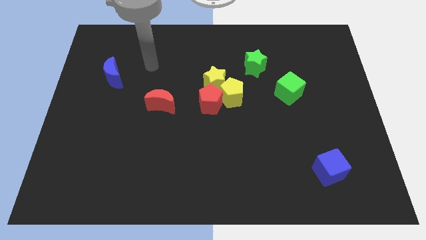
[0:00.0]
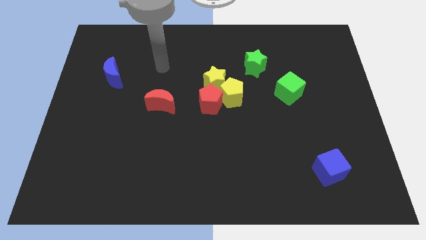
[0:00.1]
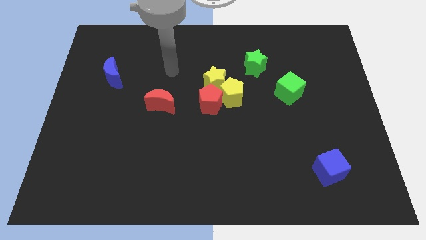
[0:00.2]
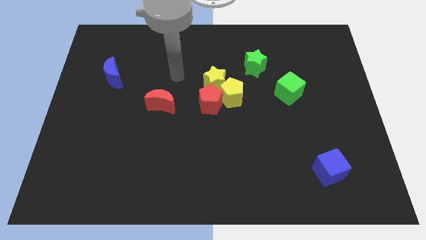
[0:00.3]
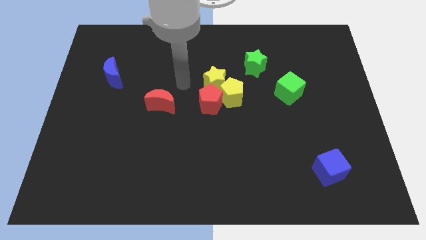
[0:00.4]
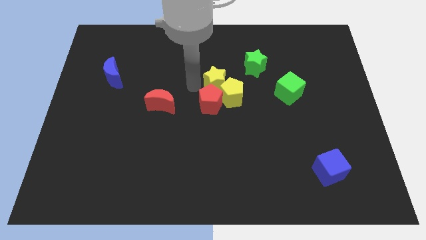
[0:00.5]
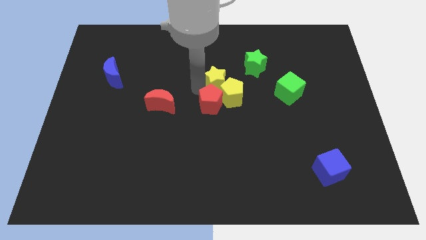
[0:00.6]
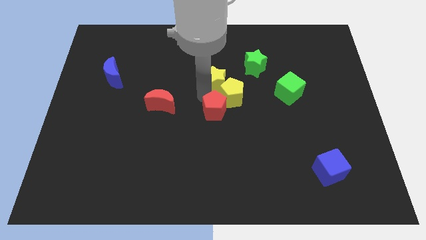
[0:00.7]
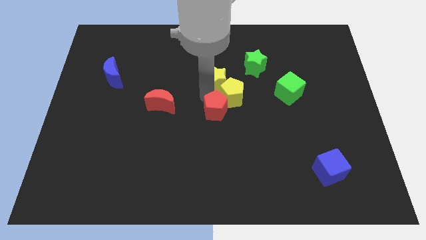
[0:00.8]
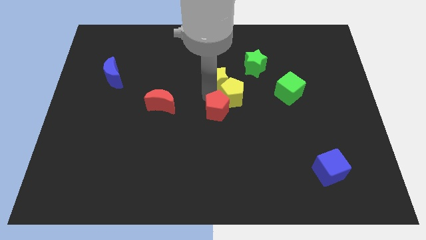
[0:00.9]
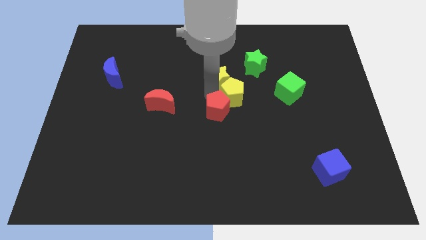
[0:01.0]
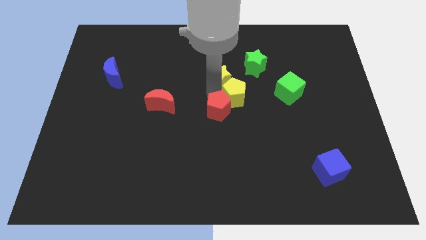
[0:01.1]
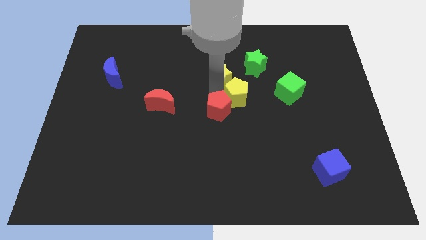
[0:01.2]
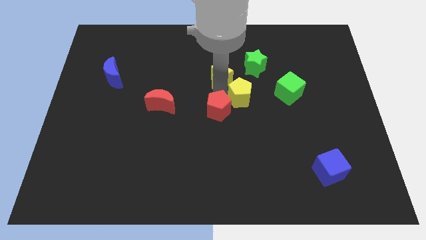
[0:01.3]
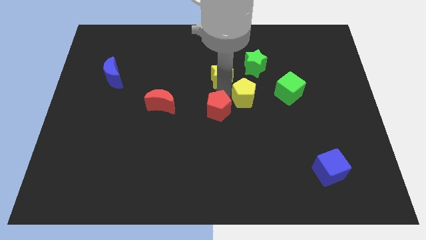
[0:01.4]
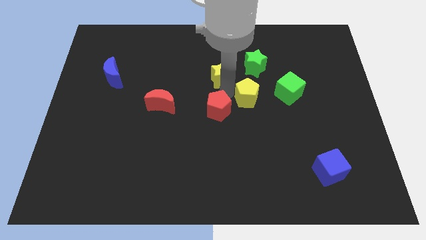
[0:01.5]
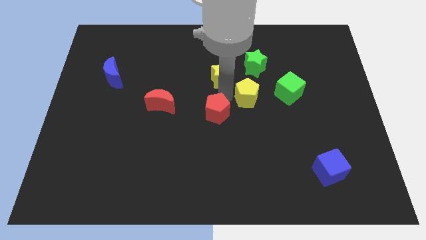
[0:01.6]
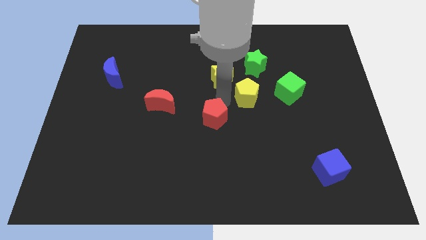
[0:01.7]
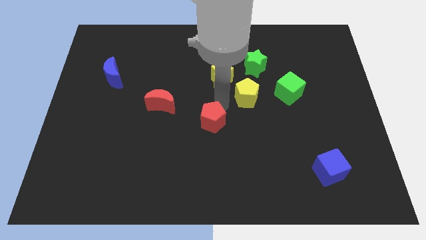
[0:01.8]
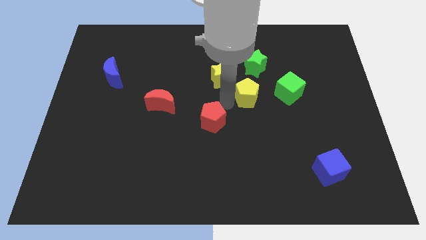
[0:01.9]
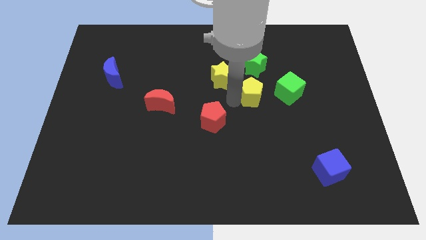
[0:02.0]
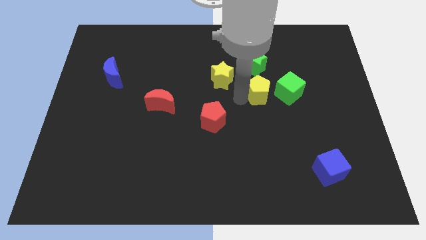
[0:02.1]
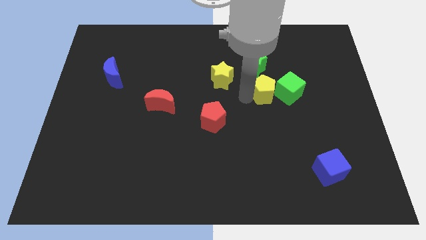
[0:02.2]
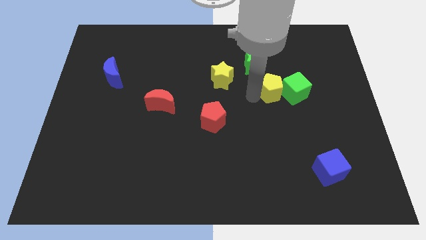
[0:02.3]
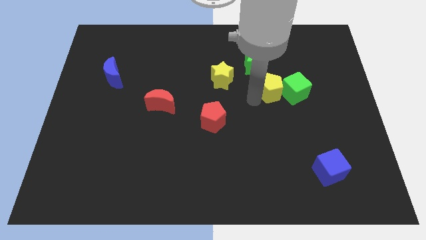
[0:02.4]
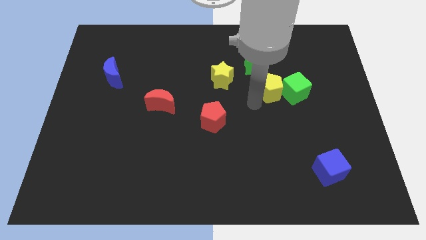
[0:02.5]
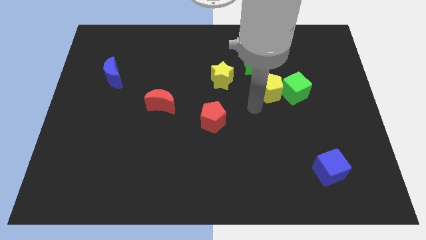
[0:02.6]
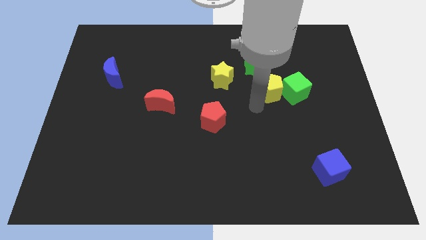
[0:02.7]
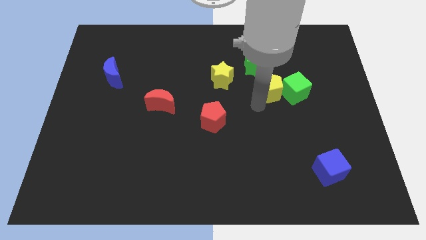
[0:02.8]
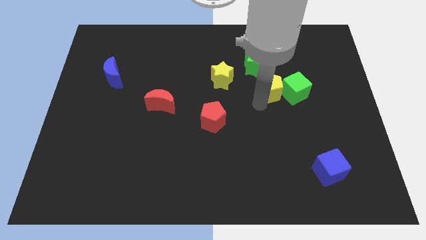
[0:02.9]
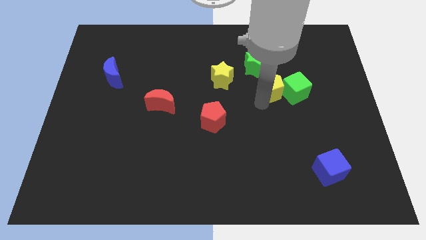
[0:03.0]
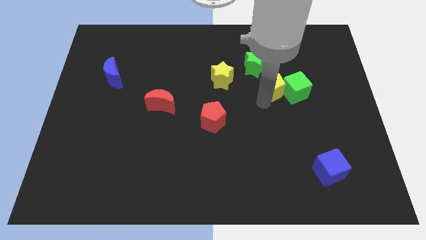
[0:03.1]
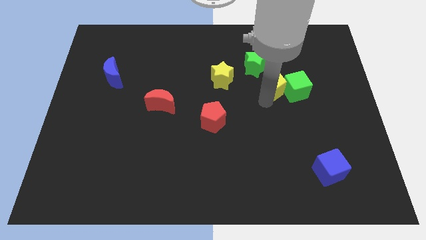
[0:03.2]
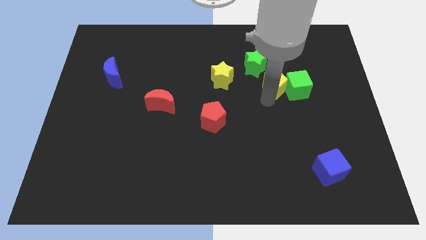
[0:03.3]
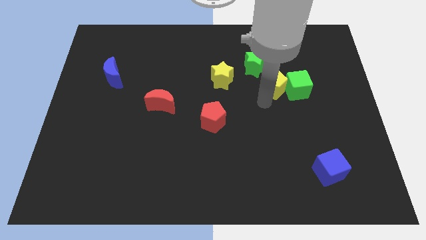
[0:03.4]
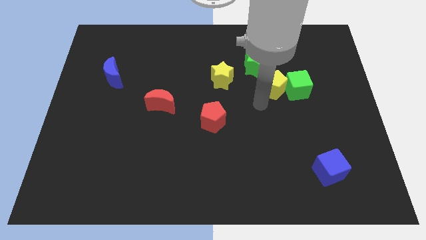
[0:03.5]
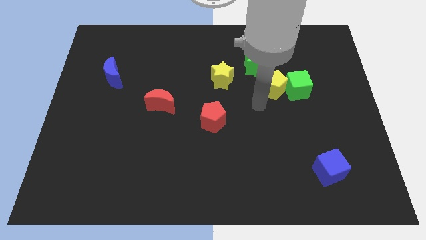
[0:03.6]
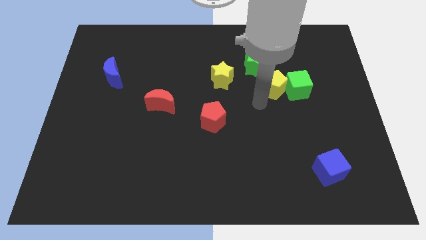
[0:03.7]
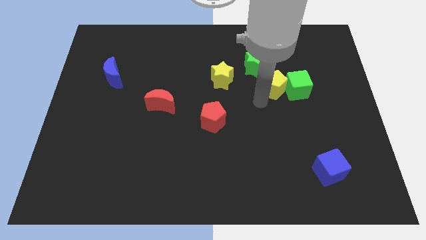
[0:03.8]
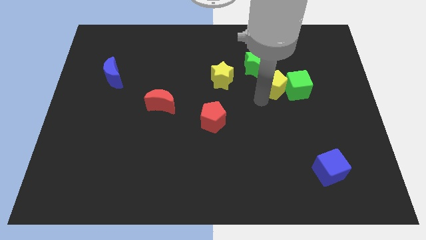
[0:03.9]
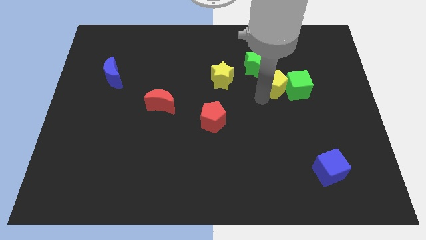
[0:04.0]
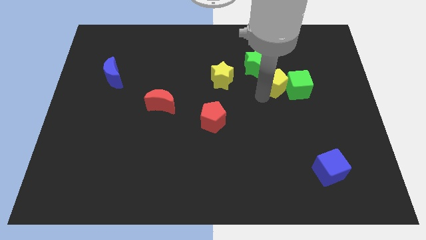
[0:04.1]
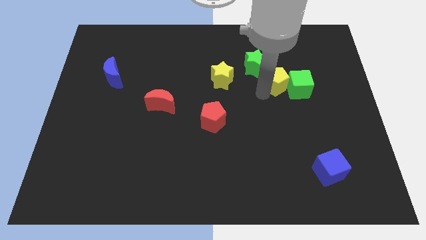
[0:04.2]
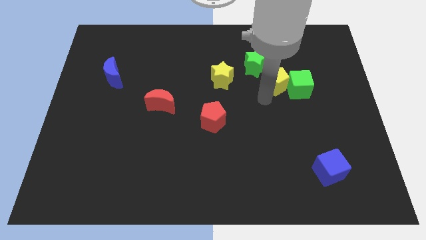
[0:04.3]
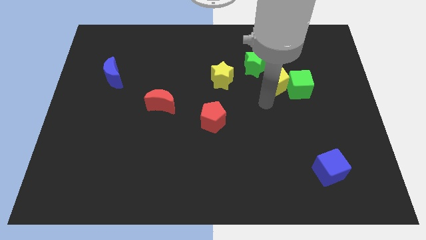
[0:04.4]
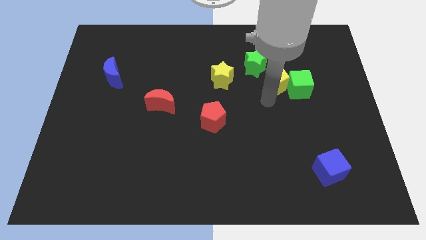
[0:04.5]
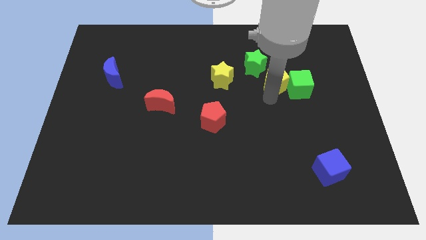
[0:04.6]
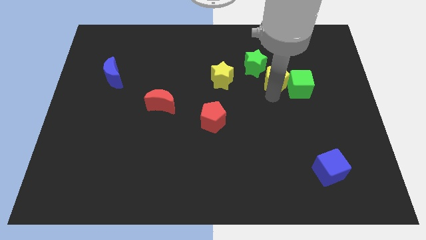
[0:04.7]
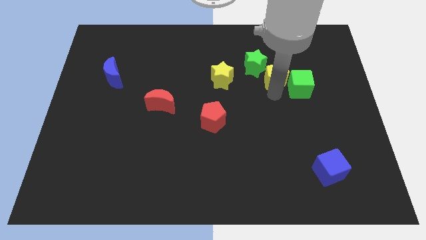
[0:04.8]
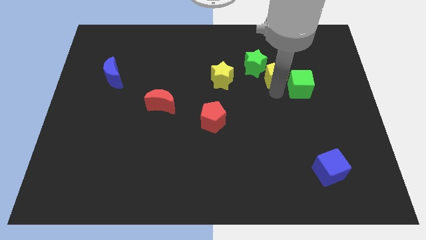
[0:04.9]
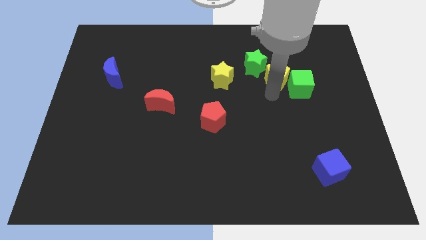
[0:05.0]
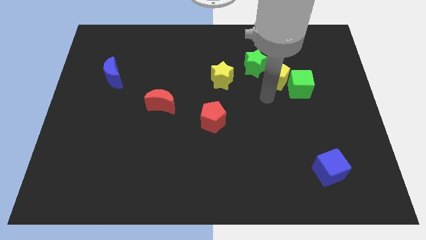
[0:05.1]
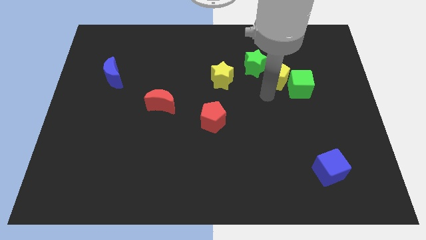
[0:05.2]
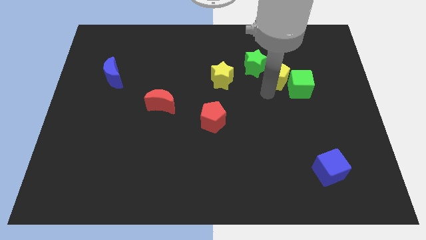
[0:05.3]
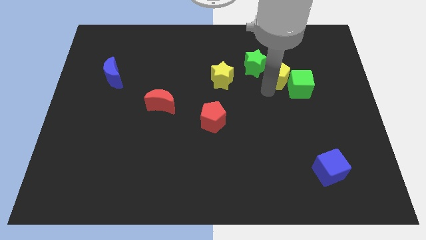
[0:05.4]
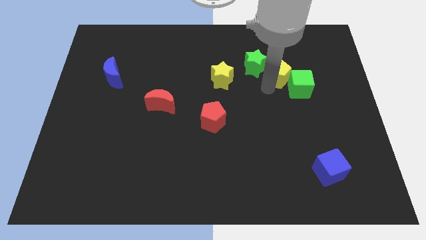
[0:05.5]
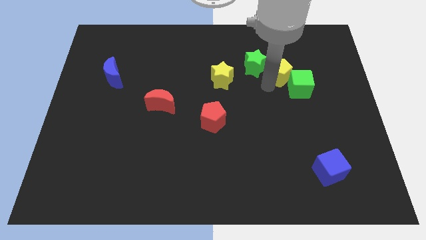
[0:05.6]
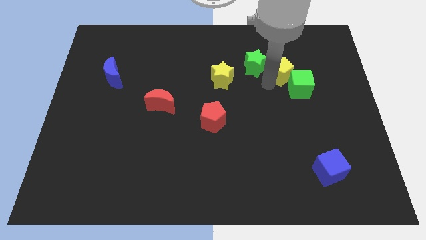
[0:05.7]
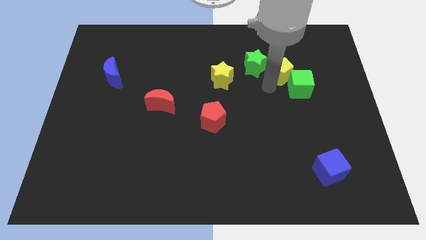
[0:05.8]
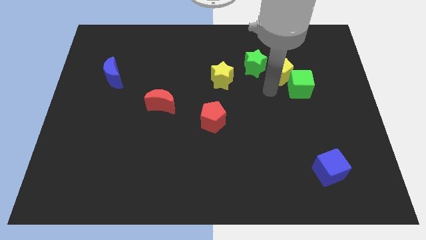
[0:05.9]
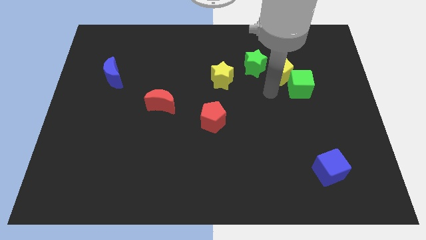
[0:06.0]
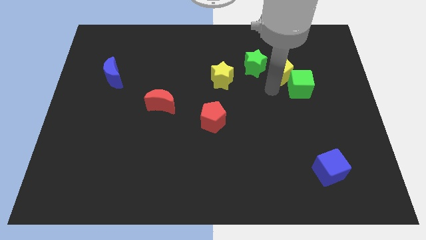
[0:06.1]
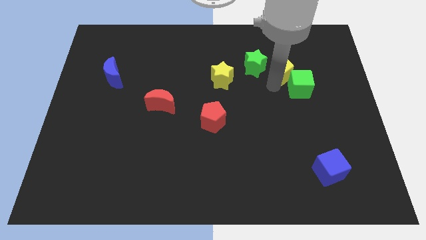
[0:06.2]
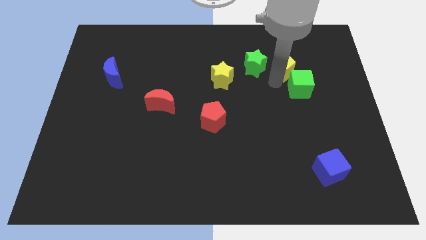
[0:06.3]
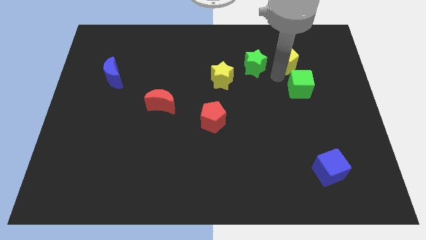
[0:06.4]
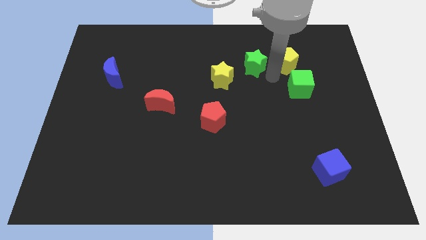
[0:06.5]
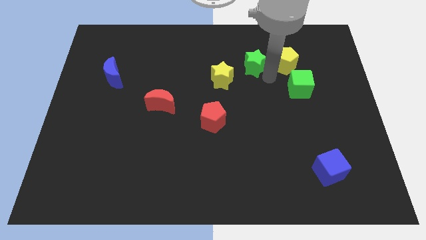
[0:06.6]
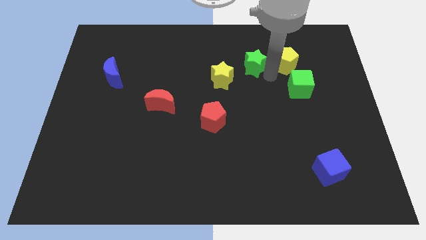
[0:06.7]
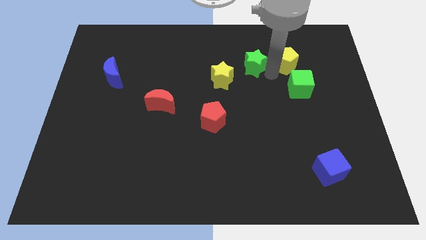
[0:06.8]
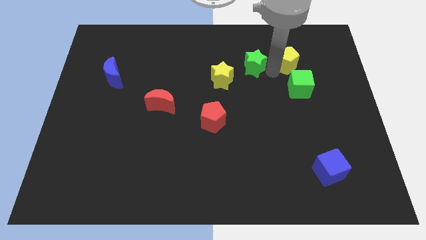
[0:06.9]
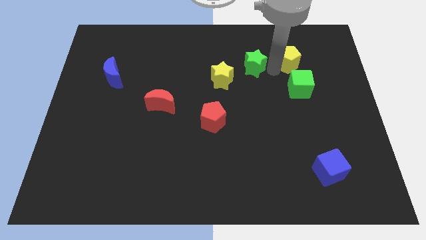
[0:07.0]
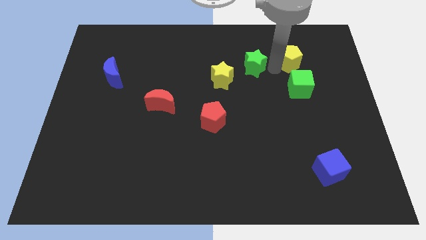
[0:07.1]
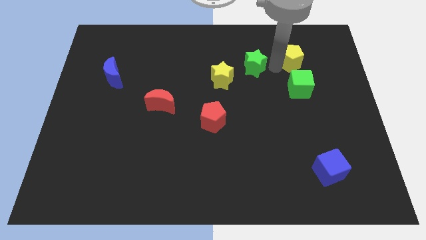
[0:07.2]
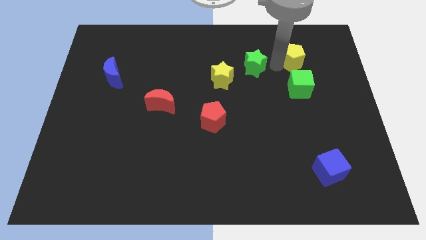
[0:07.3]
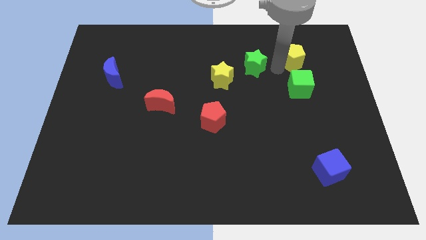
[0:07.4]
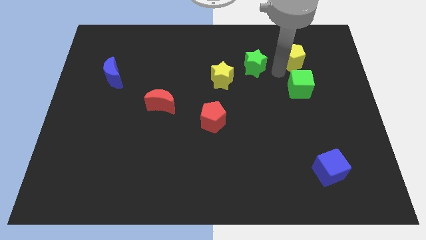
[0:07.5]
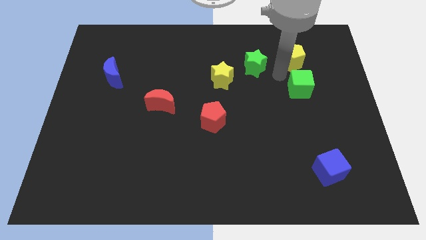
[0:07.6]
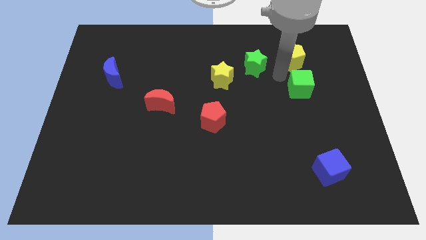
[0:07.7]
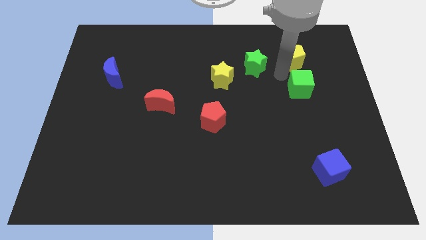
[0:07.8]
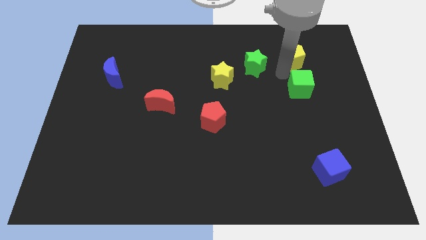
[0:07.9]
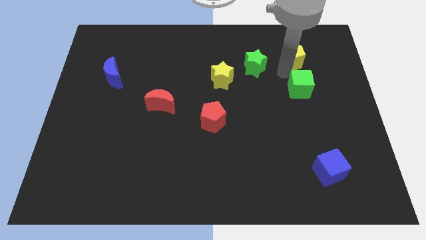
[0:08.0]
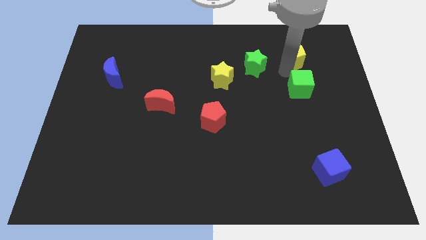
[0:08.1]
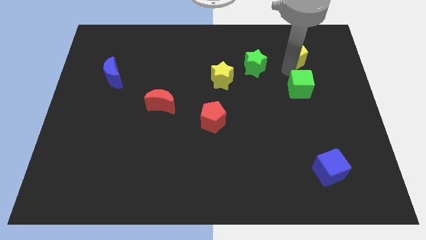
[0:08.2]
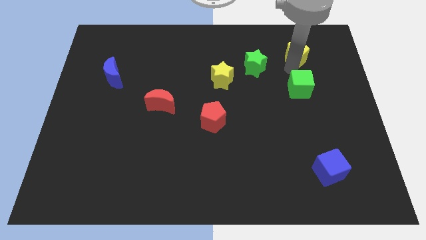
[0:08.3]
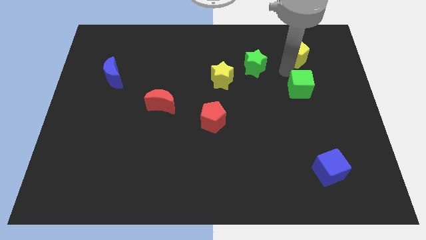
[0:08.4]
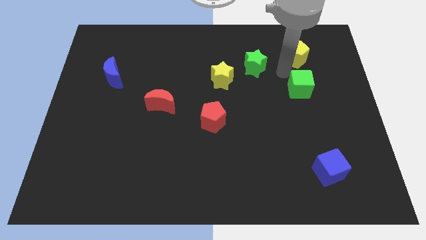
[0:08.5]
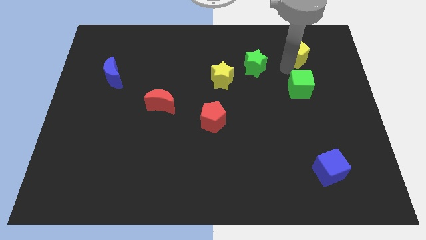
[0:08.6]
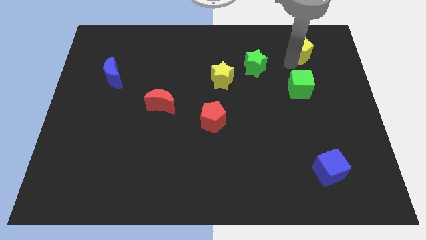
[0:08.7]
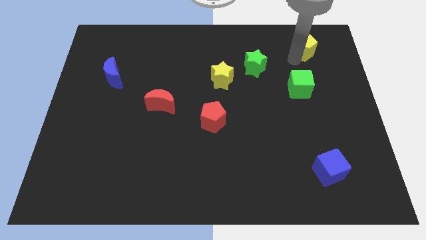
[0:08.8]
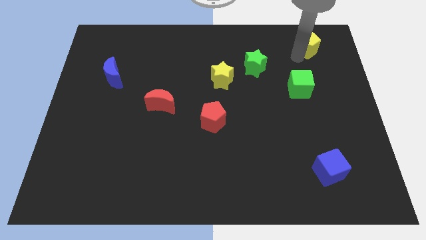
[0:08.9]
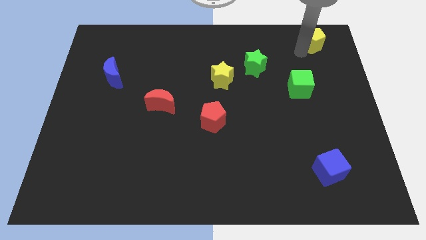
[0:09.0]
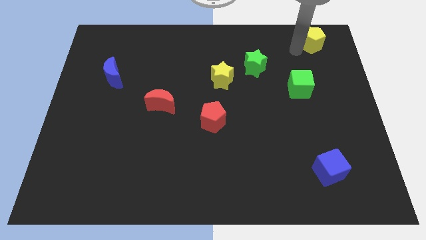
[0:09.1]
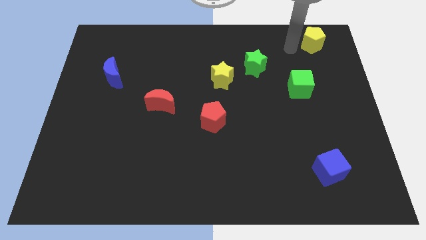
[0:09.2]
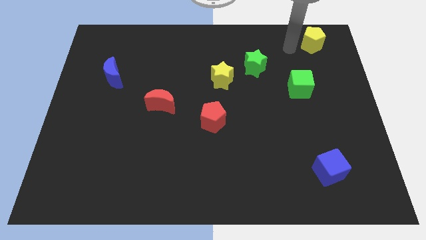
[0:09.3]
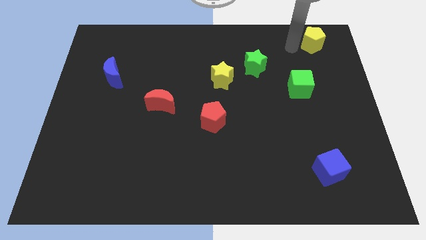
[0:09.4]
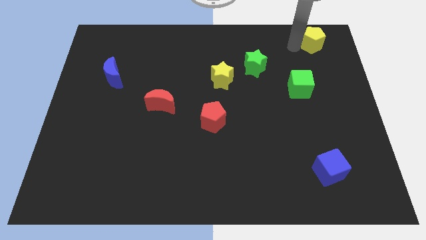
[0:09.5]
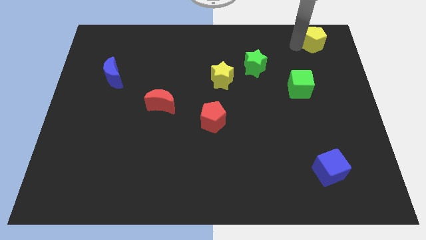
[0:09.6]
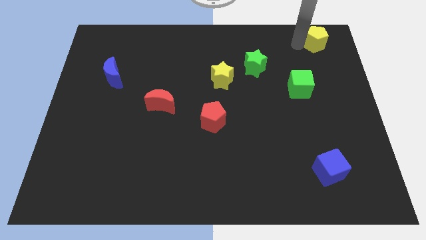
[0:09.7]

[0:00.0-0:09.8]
push the yellow pentagon to the top right corner
